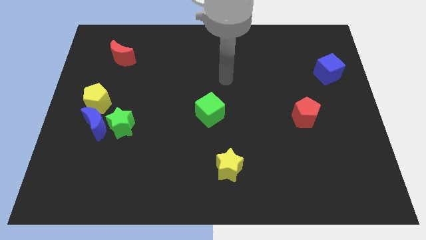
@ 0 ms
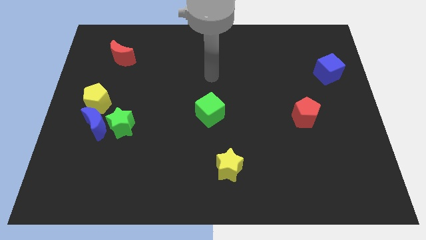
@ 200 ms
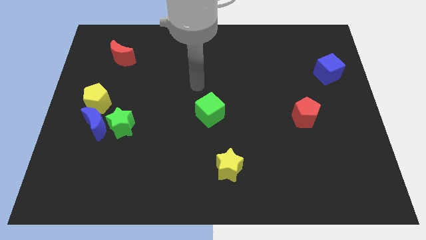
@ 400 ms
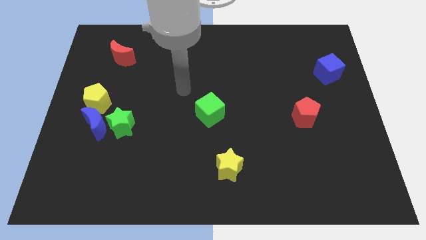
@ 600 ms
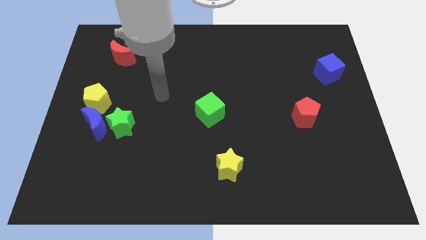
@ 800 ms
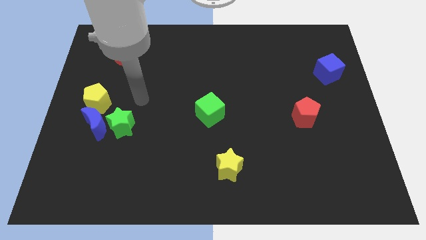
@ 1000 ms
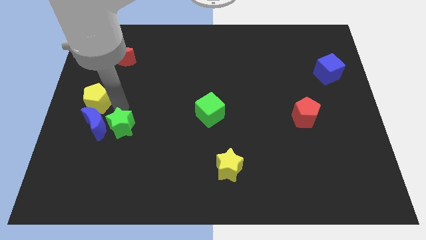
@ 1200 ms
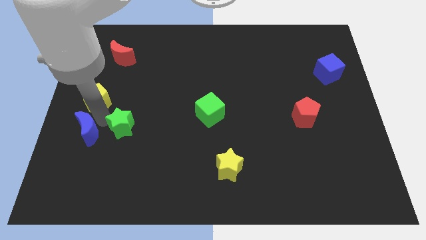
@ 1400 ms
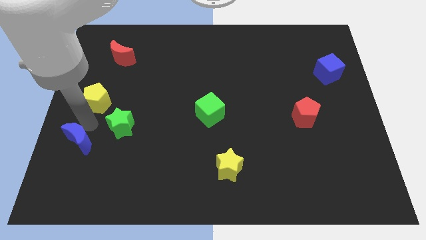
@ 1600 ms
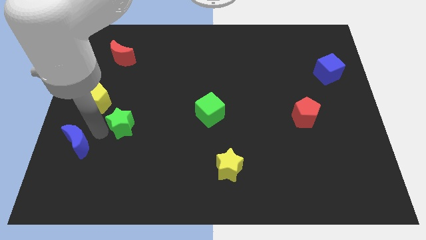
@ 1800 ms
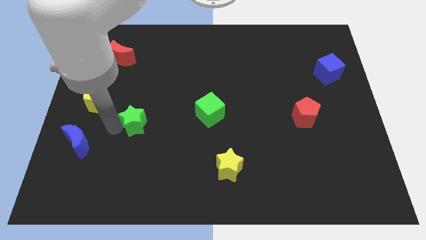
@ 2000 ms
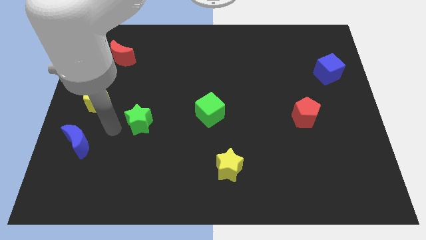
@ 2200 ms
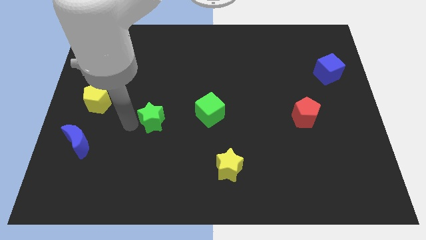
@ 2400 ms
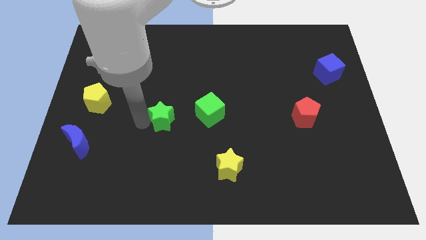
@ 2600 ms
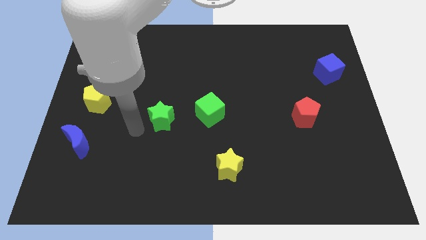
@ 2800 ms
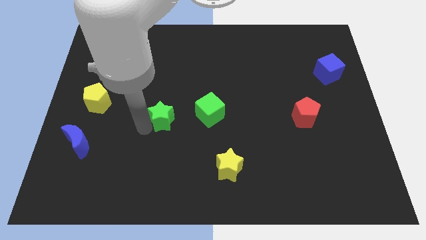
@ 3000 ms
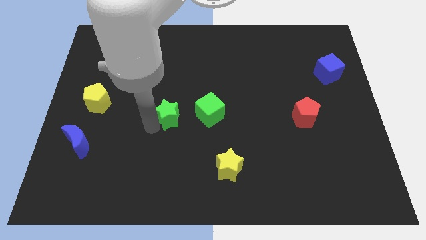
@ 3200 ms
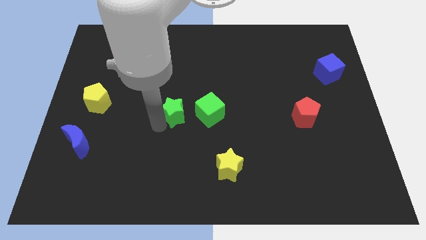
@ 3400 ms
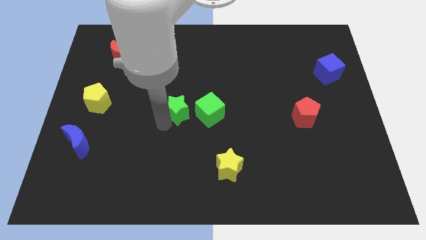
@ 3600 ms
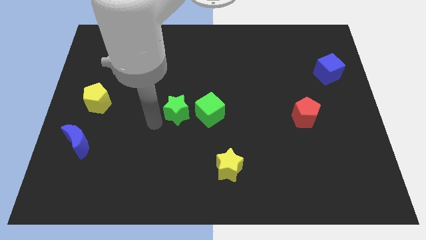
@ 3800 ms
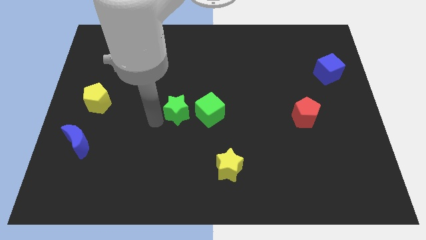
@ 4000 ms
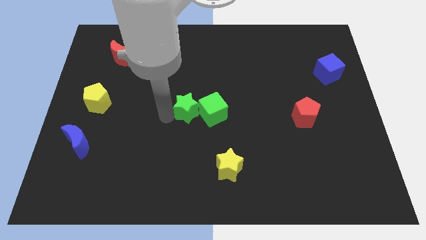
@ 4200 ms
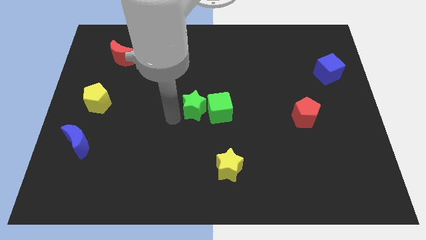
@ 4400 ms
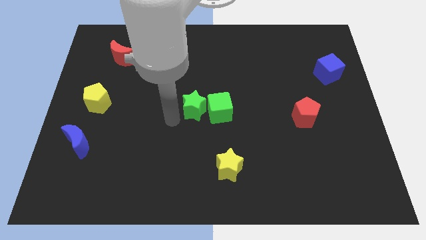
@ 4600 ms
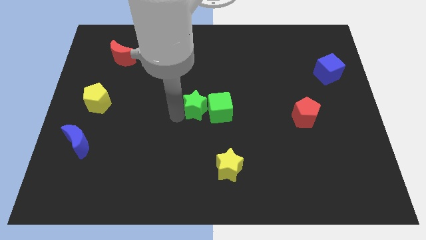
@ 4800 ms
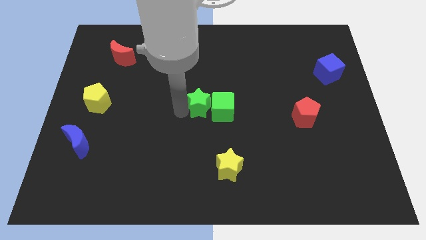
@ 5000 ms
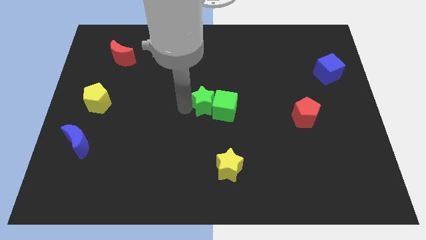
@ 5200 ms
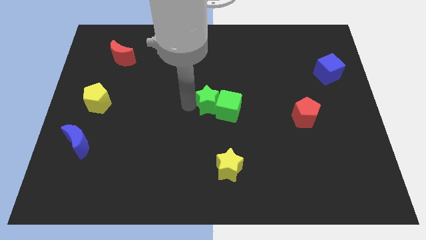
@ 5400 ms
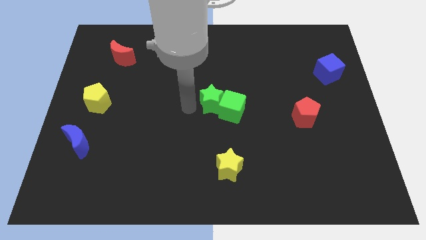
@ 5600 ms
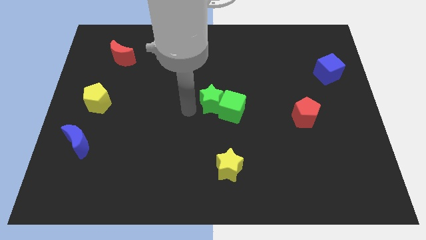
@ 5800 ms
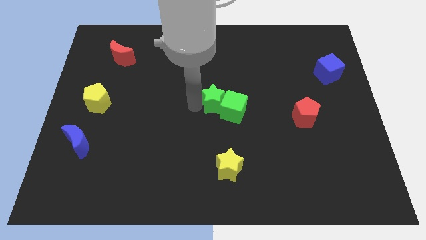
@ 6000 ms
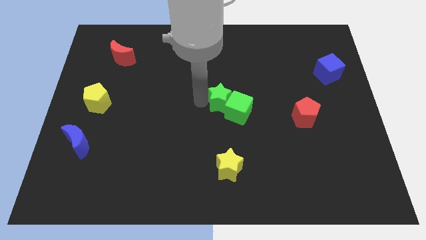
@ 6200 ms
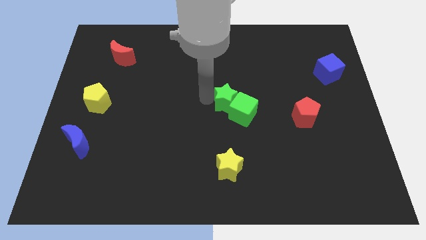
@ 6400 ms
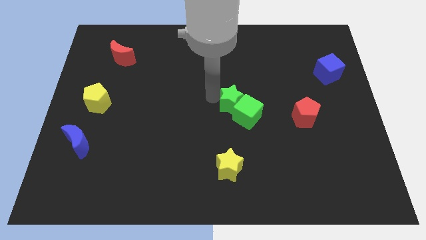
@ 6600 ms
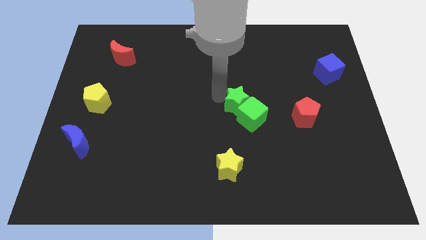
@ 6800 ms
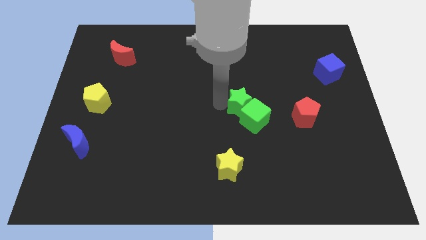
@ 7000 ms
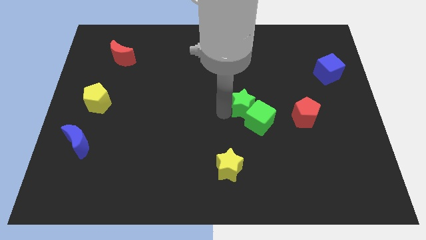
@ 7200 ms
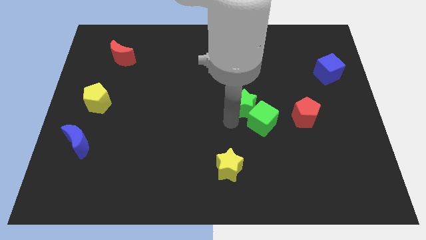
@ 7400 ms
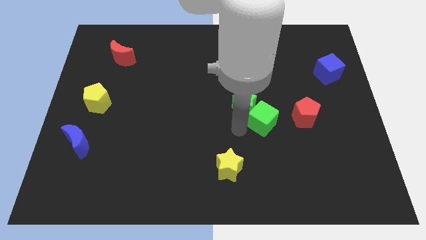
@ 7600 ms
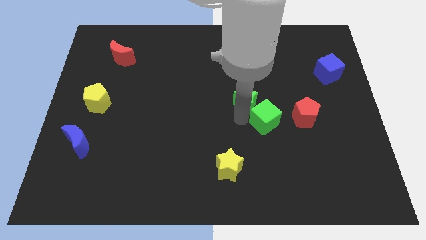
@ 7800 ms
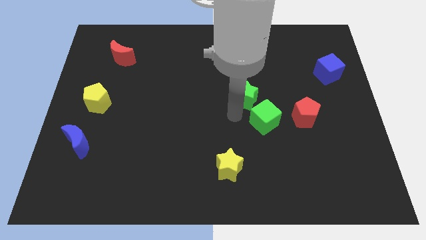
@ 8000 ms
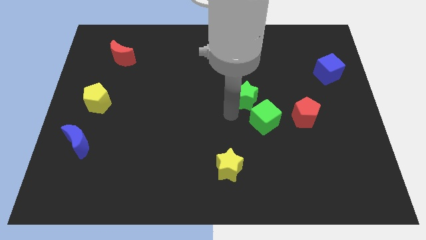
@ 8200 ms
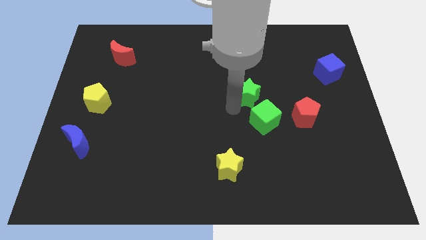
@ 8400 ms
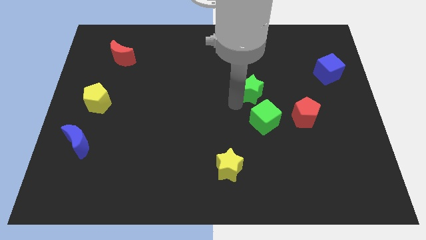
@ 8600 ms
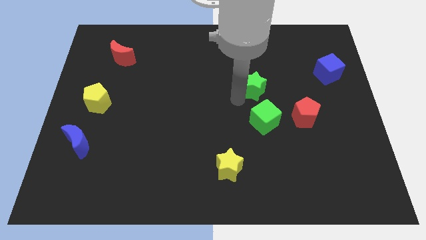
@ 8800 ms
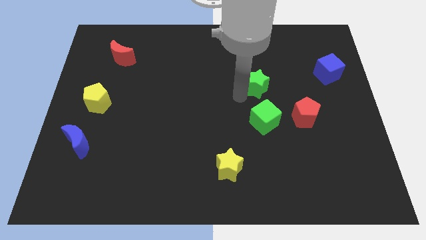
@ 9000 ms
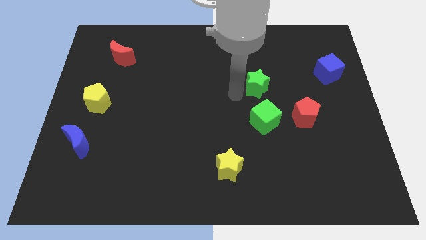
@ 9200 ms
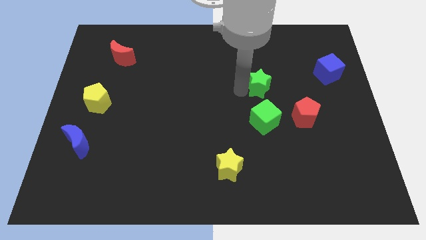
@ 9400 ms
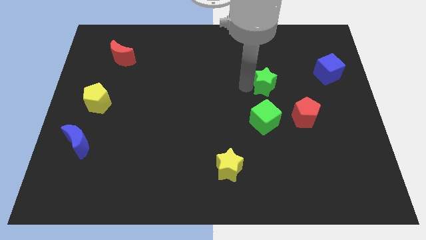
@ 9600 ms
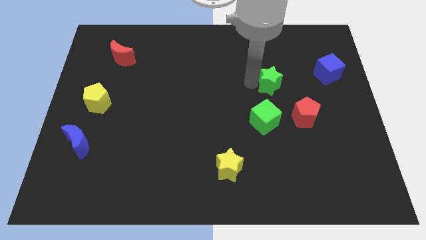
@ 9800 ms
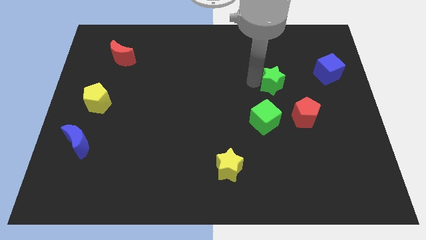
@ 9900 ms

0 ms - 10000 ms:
push the green star to the left side of the blue cube

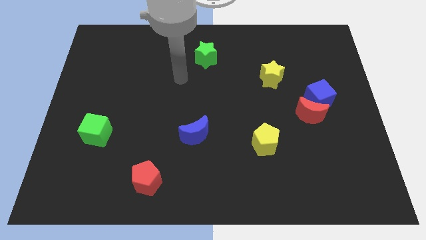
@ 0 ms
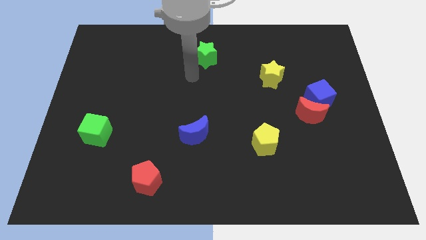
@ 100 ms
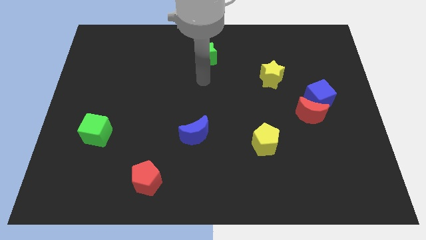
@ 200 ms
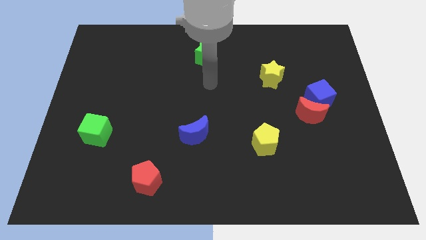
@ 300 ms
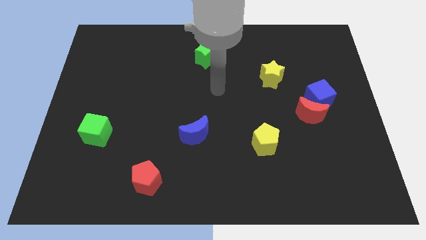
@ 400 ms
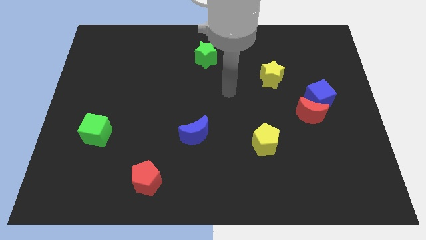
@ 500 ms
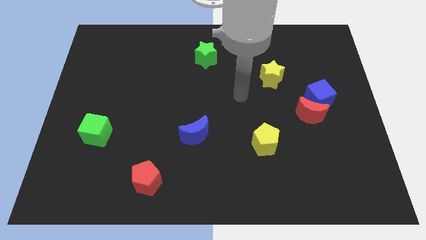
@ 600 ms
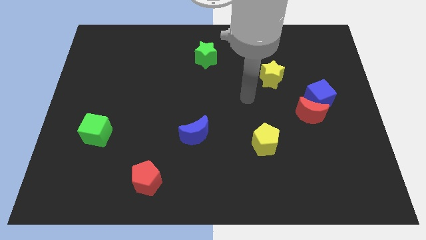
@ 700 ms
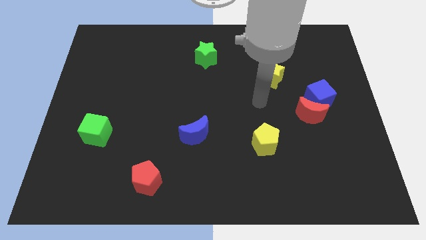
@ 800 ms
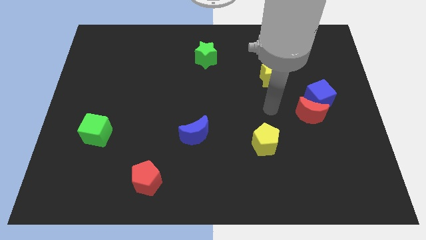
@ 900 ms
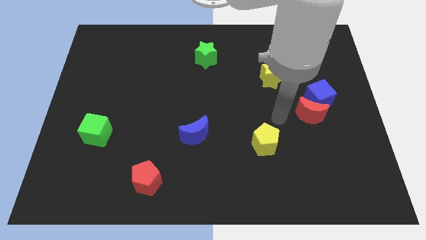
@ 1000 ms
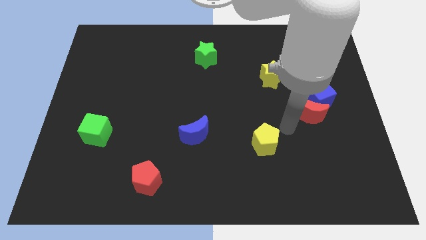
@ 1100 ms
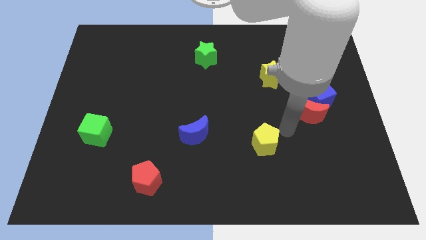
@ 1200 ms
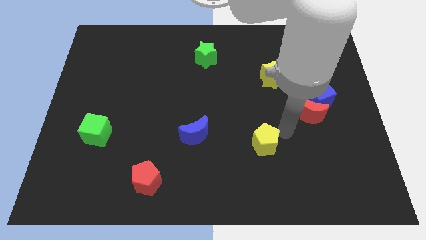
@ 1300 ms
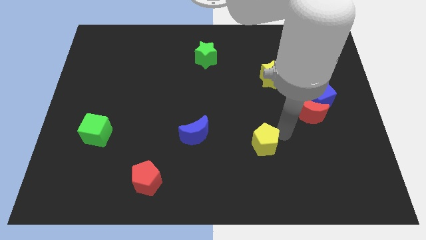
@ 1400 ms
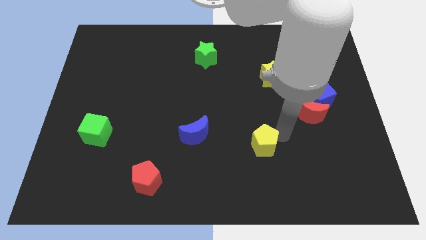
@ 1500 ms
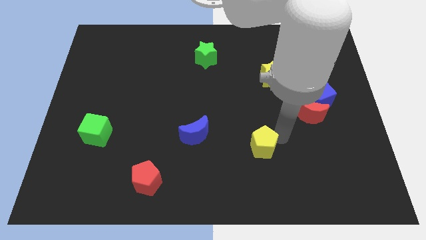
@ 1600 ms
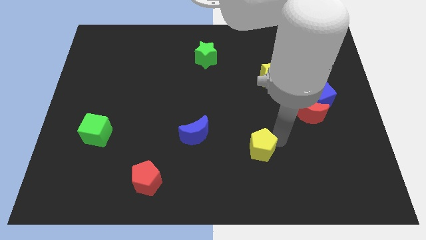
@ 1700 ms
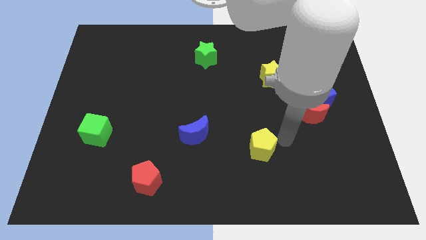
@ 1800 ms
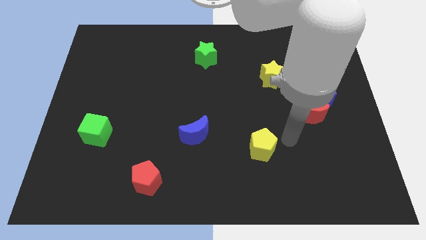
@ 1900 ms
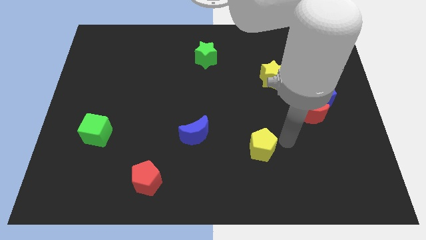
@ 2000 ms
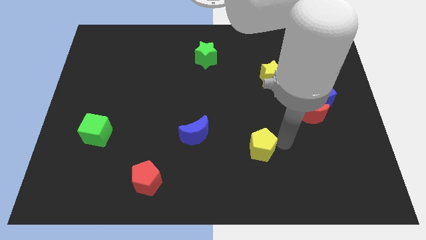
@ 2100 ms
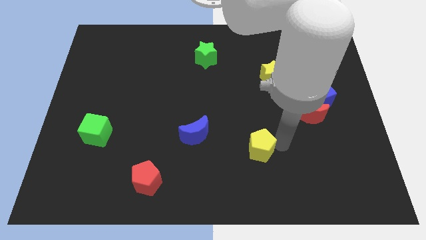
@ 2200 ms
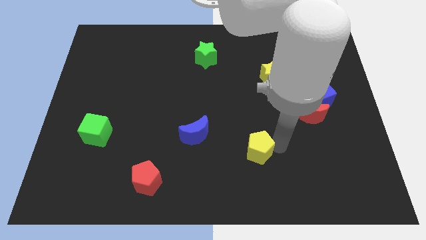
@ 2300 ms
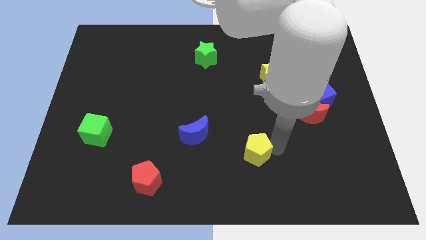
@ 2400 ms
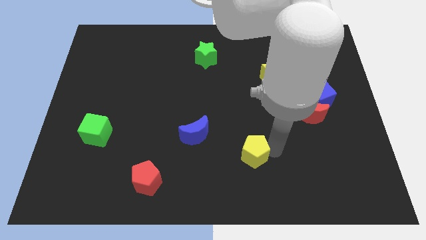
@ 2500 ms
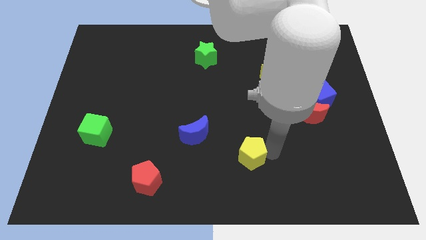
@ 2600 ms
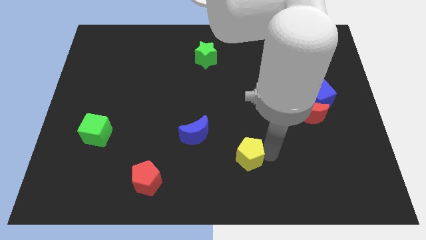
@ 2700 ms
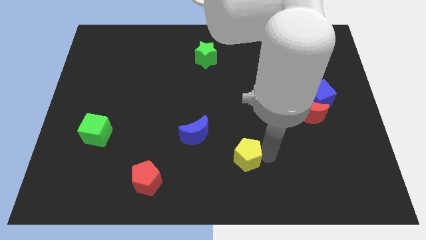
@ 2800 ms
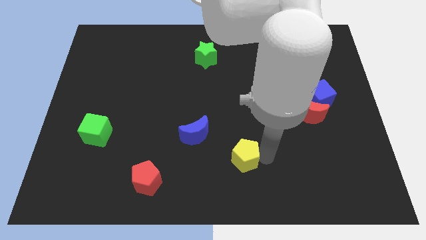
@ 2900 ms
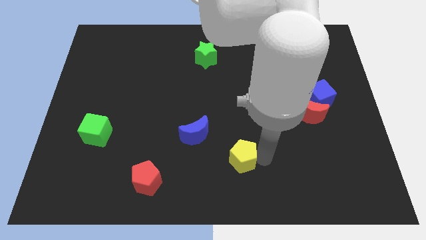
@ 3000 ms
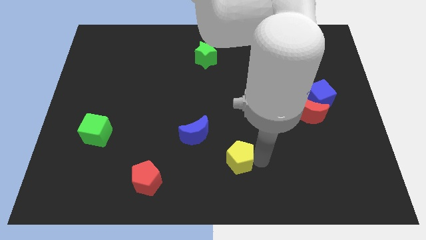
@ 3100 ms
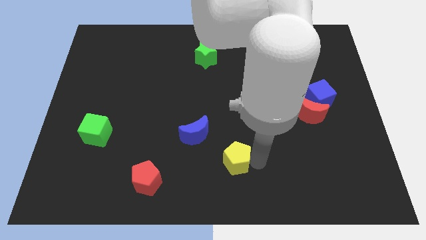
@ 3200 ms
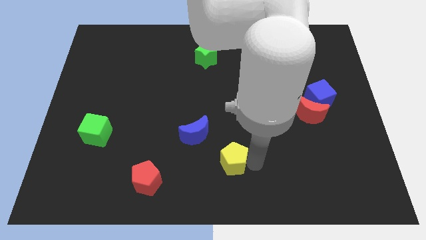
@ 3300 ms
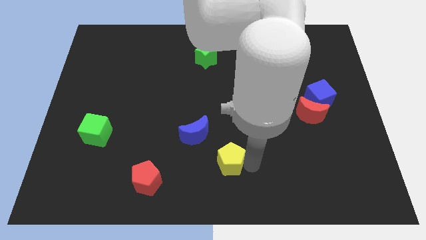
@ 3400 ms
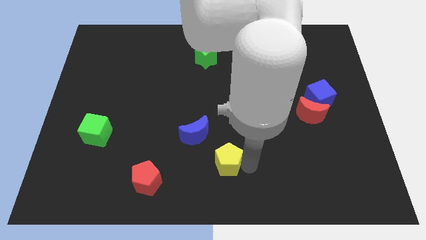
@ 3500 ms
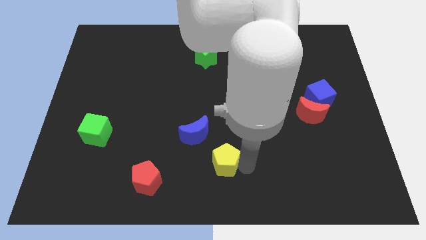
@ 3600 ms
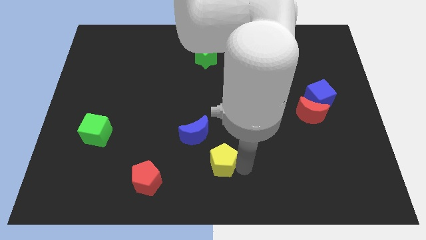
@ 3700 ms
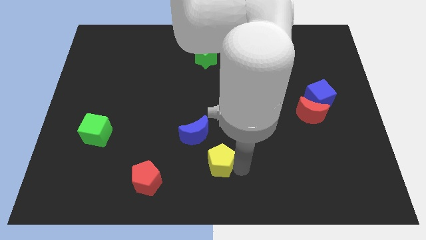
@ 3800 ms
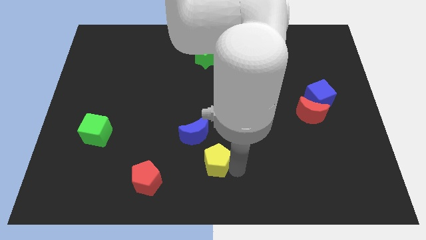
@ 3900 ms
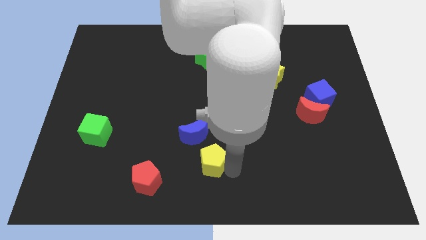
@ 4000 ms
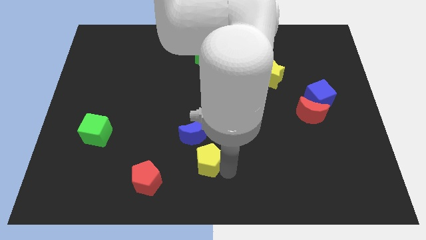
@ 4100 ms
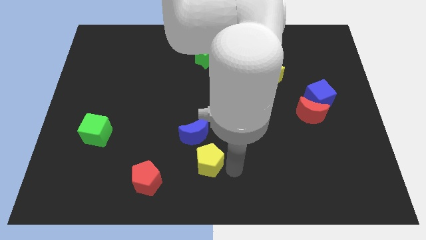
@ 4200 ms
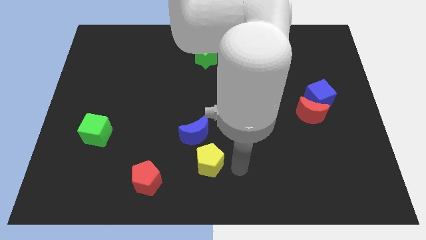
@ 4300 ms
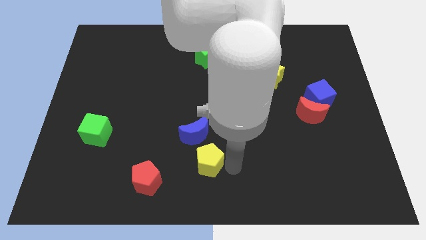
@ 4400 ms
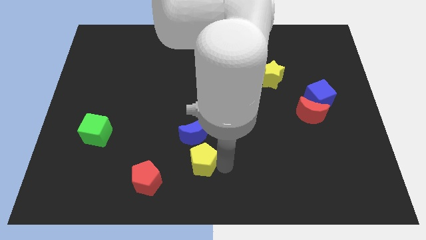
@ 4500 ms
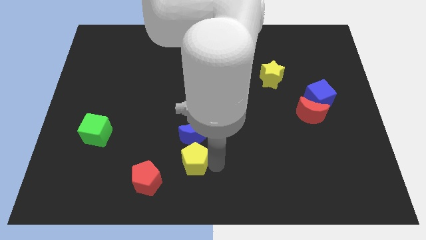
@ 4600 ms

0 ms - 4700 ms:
move the yellow pentagon diagonally up and to the right of the red pentagon
